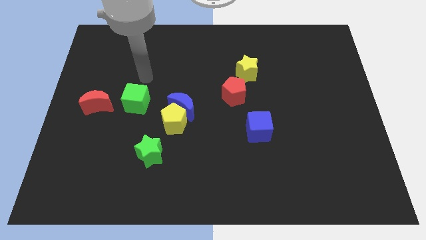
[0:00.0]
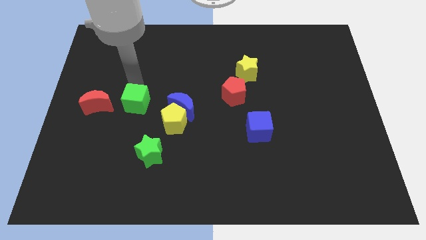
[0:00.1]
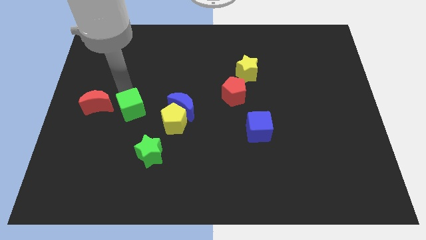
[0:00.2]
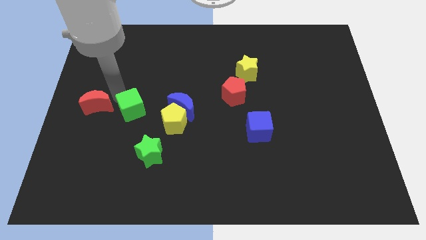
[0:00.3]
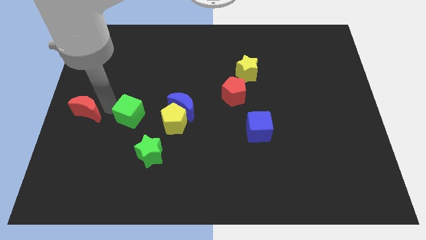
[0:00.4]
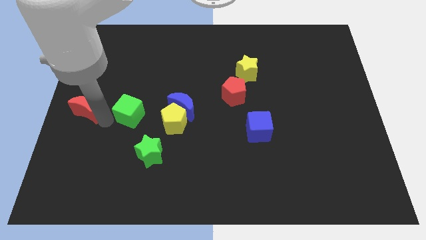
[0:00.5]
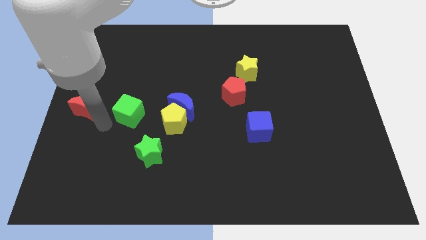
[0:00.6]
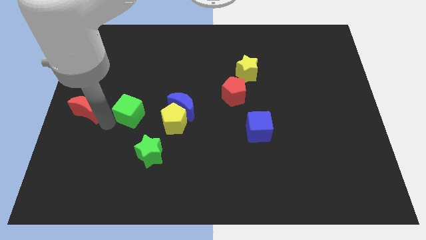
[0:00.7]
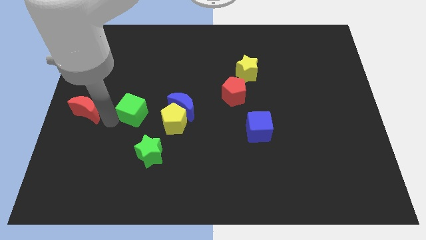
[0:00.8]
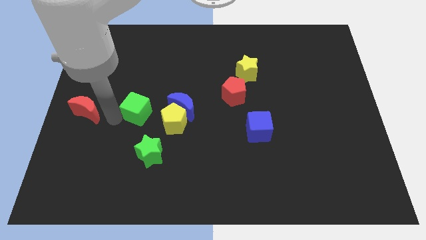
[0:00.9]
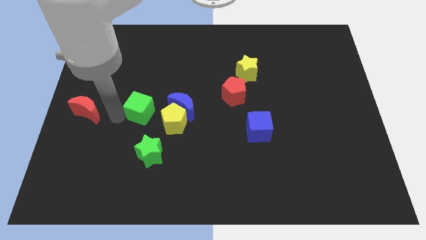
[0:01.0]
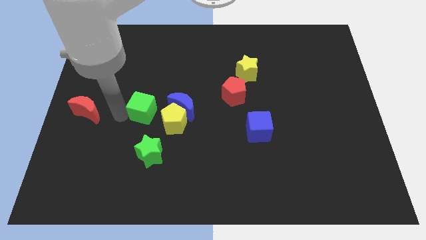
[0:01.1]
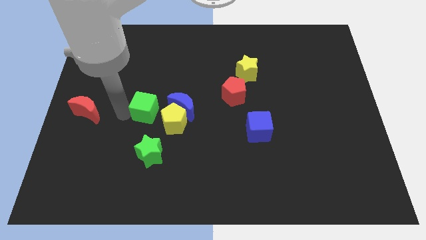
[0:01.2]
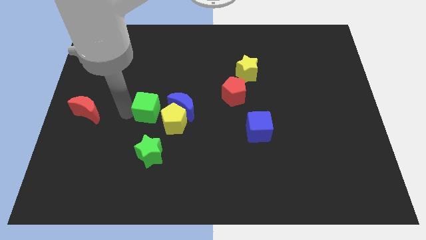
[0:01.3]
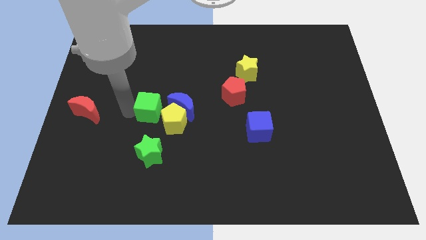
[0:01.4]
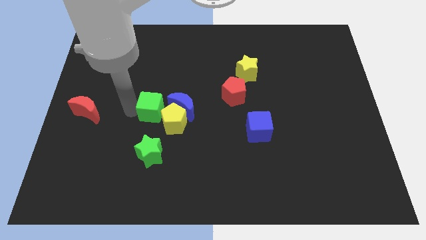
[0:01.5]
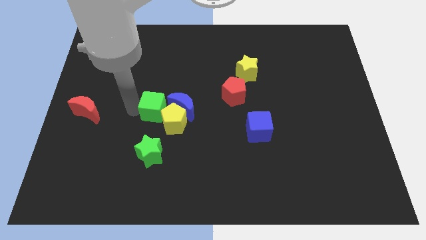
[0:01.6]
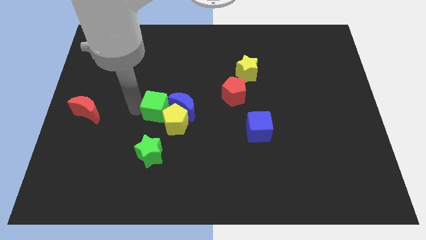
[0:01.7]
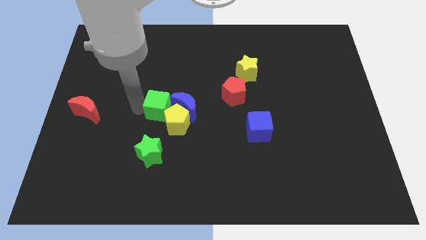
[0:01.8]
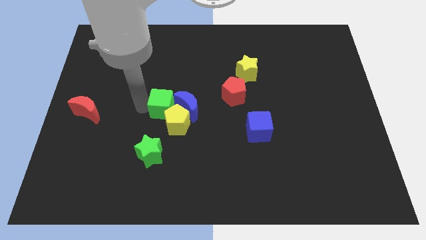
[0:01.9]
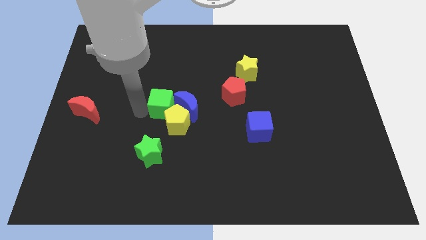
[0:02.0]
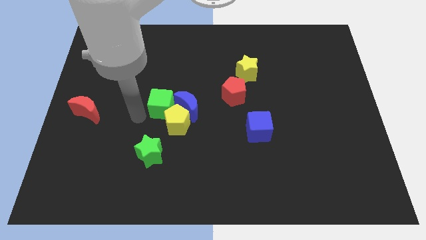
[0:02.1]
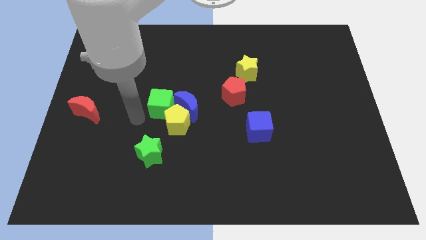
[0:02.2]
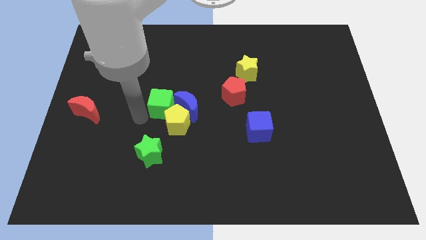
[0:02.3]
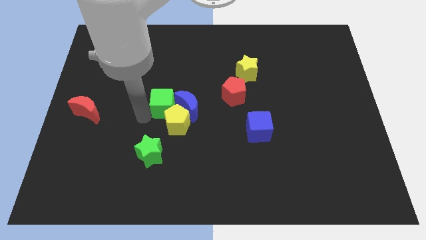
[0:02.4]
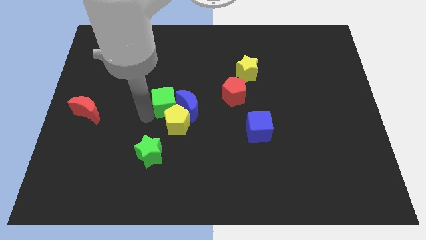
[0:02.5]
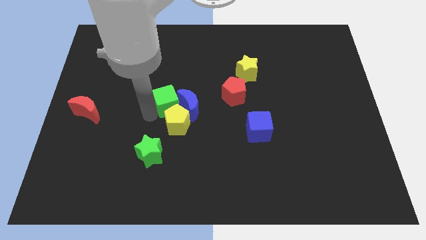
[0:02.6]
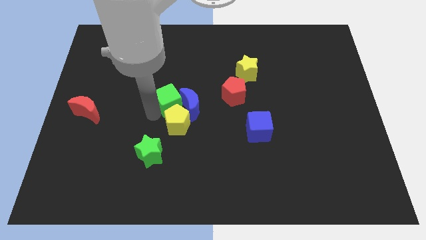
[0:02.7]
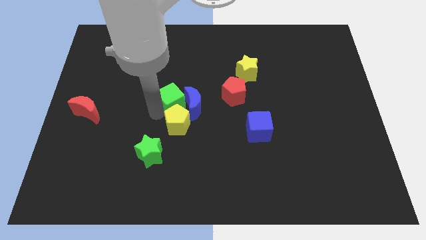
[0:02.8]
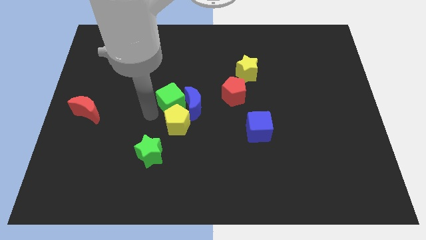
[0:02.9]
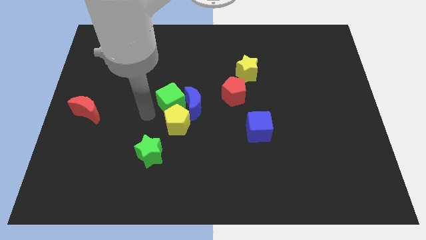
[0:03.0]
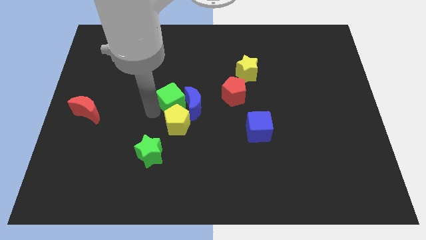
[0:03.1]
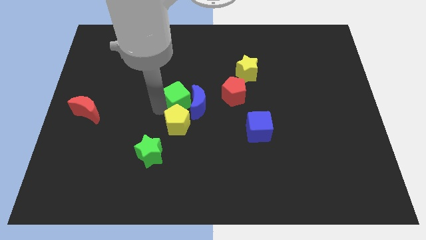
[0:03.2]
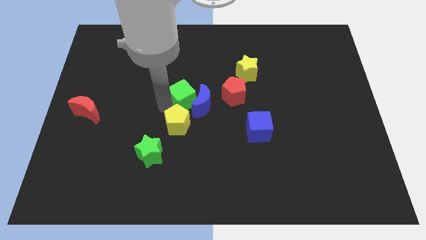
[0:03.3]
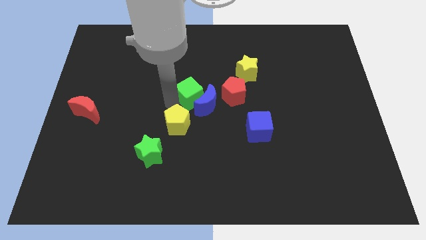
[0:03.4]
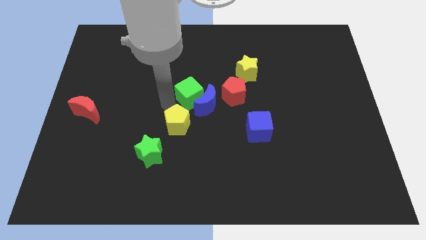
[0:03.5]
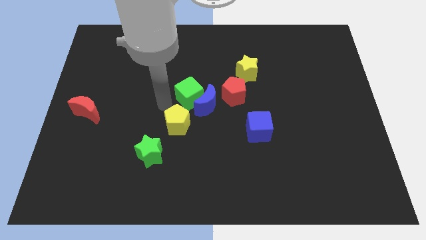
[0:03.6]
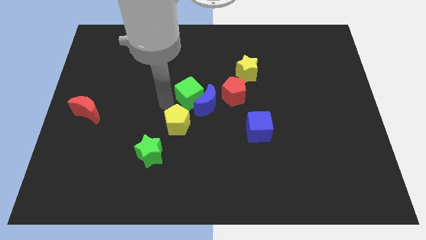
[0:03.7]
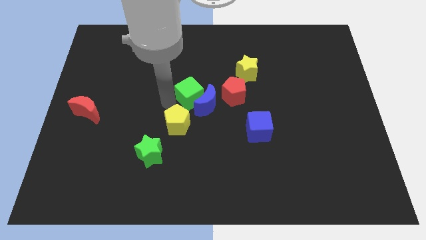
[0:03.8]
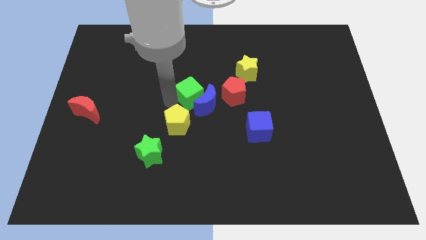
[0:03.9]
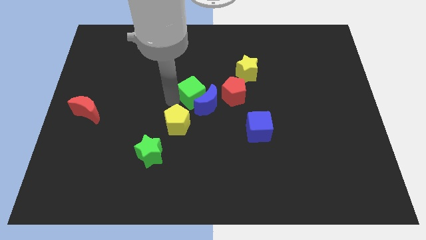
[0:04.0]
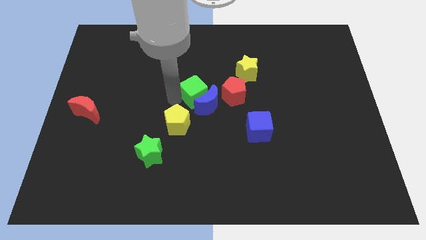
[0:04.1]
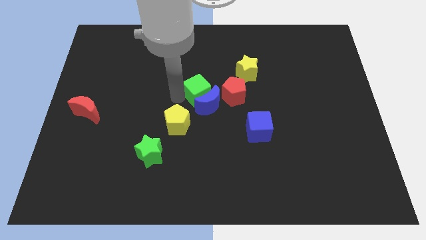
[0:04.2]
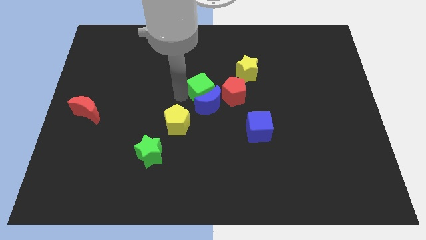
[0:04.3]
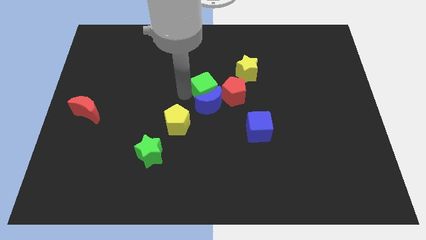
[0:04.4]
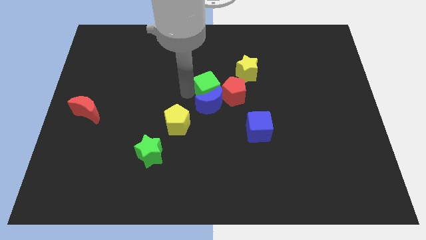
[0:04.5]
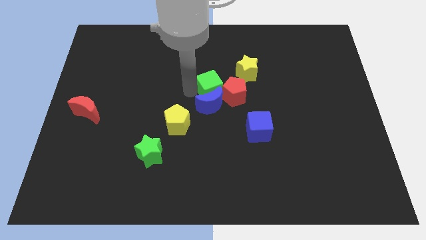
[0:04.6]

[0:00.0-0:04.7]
slide the green cube to the red pentagon

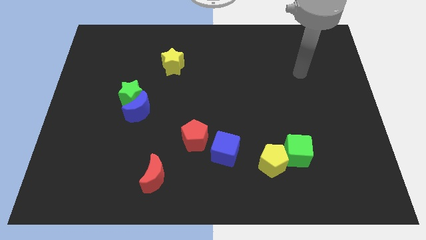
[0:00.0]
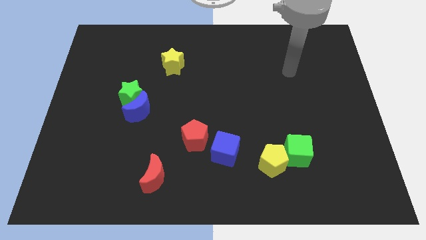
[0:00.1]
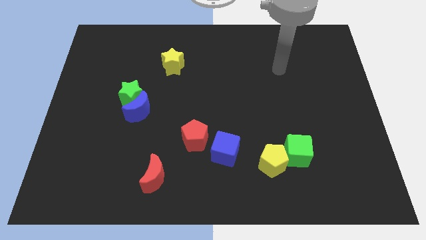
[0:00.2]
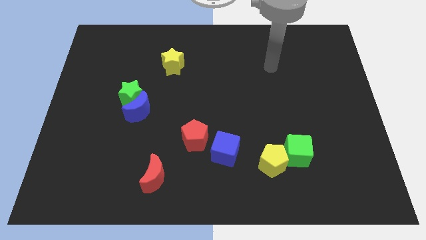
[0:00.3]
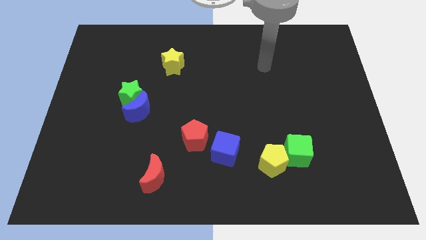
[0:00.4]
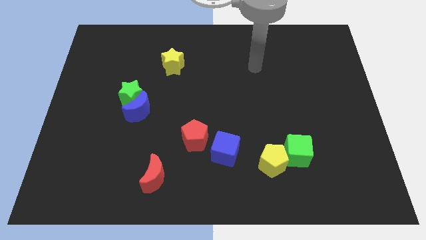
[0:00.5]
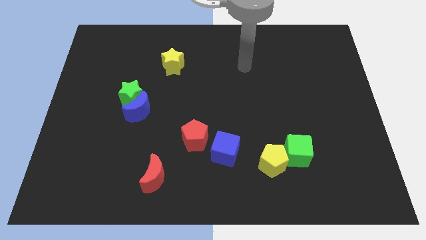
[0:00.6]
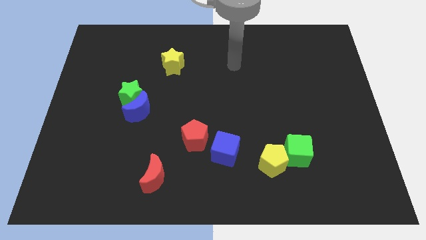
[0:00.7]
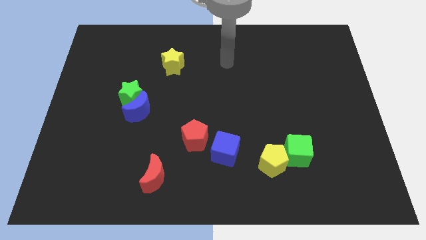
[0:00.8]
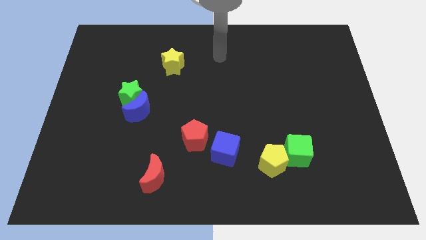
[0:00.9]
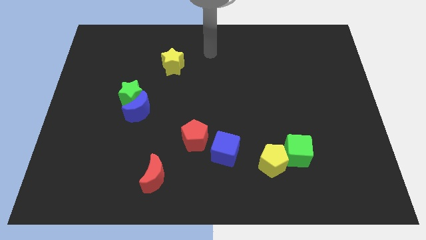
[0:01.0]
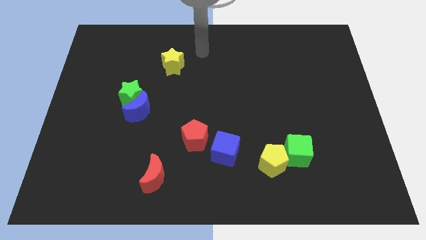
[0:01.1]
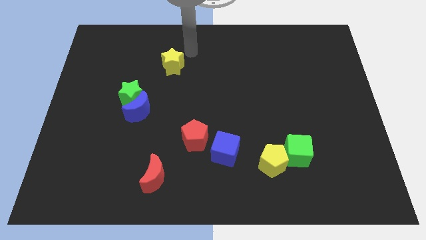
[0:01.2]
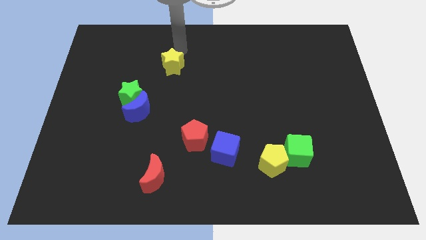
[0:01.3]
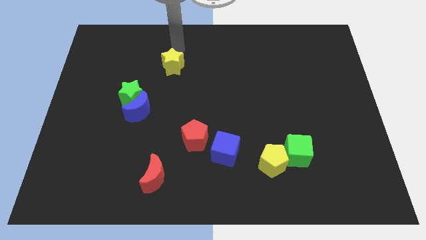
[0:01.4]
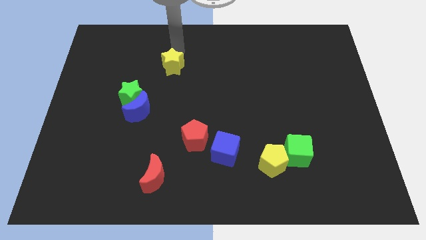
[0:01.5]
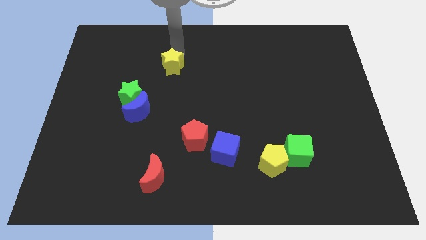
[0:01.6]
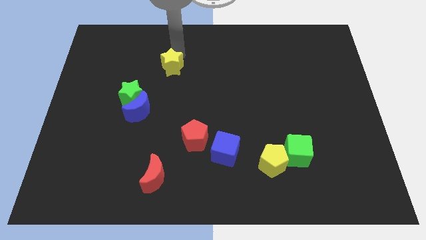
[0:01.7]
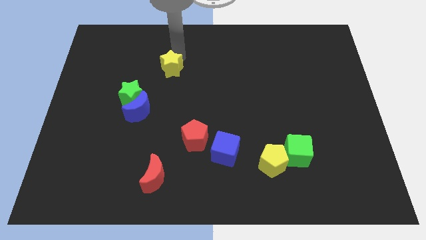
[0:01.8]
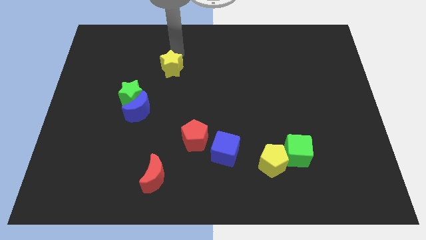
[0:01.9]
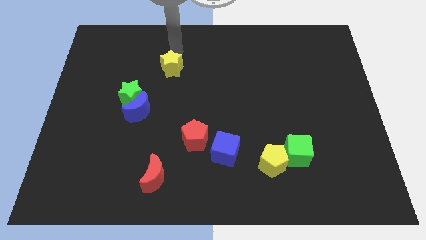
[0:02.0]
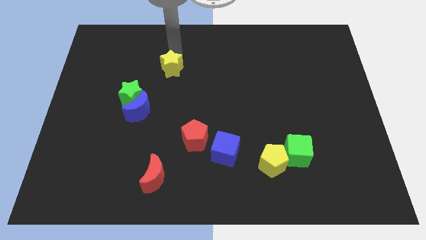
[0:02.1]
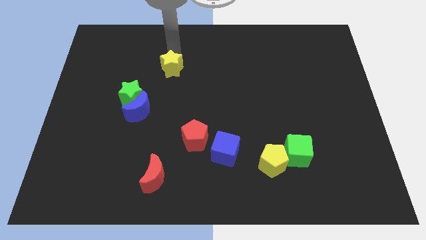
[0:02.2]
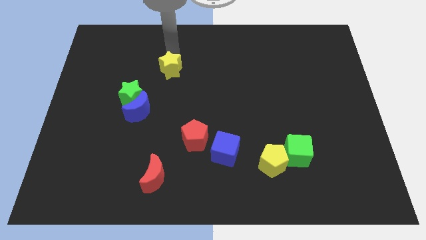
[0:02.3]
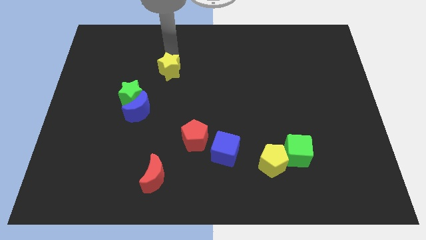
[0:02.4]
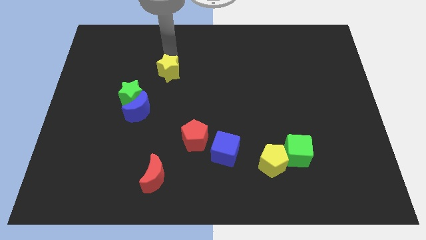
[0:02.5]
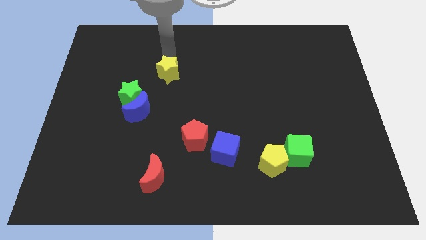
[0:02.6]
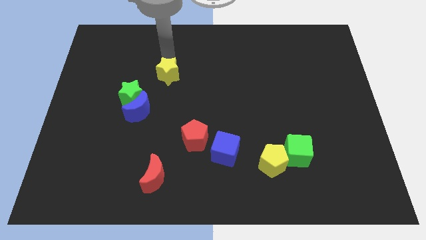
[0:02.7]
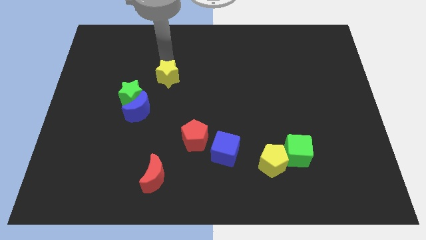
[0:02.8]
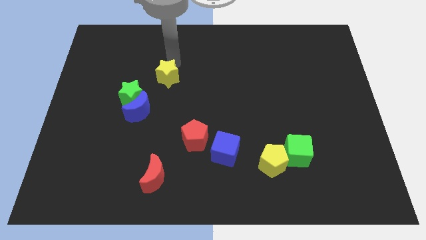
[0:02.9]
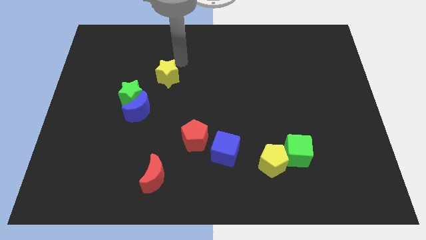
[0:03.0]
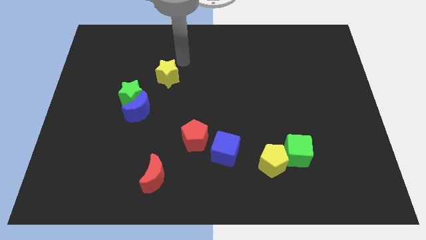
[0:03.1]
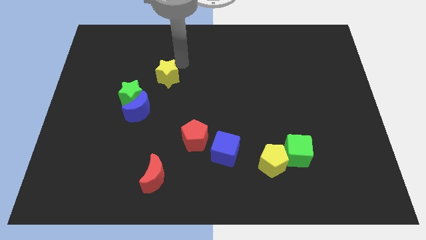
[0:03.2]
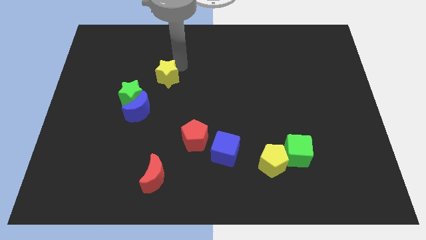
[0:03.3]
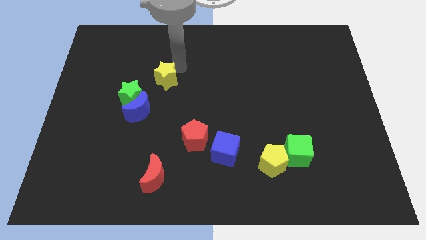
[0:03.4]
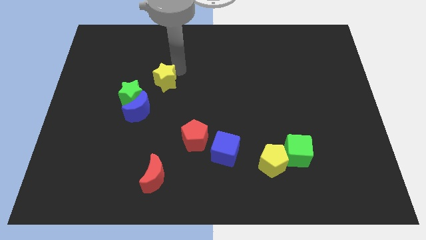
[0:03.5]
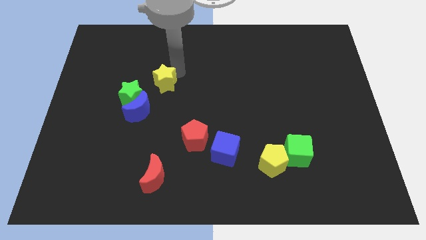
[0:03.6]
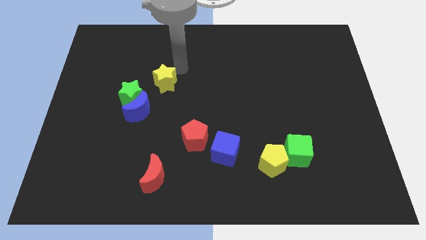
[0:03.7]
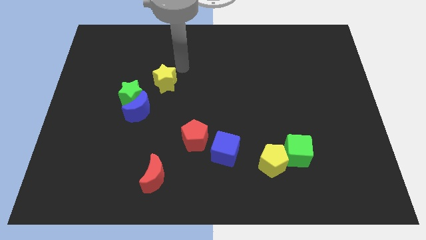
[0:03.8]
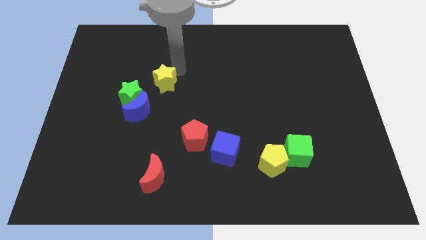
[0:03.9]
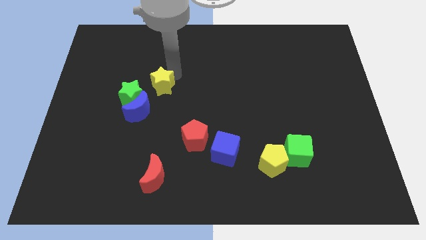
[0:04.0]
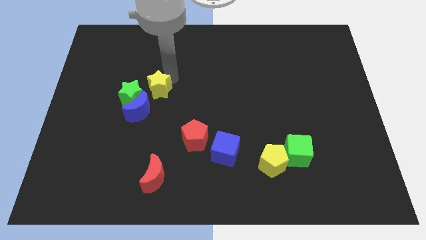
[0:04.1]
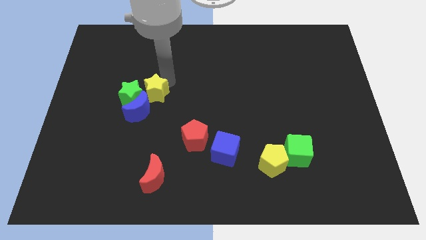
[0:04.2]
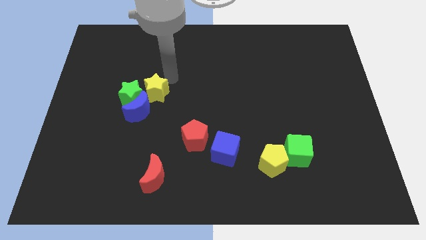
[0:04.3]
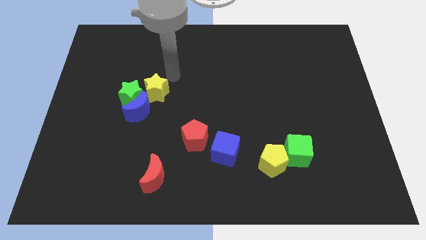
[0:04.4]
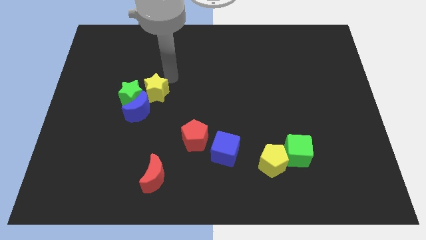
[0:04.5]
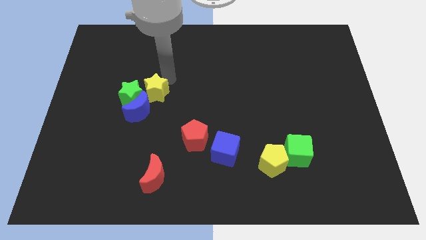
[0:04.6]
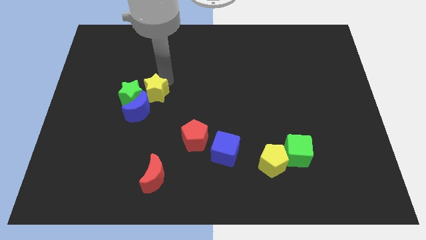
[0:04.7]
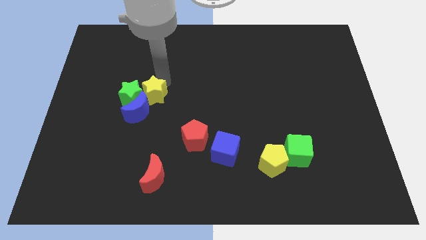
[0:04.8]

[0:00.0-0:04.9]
put the yellow star to the blue moon
